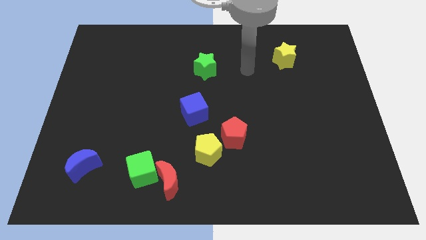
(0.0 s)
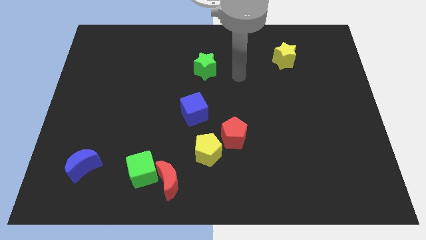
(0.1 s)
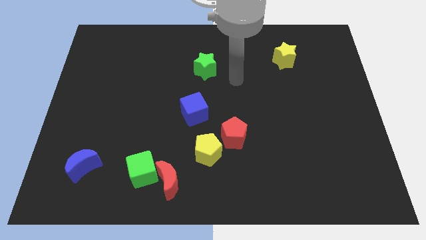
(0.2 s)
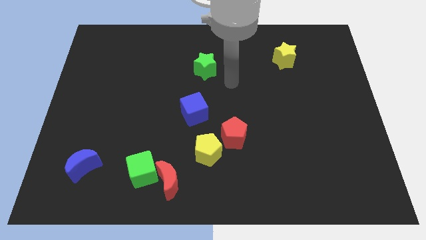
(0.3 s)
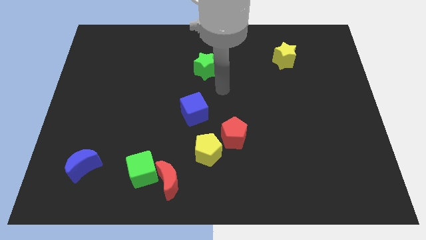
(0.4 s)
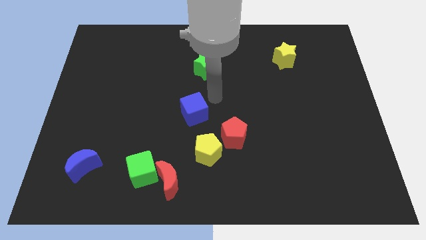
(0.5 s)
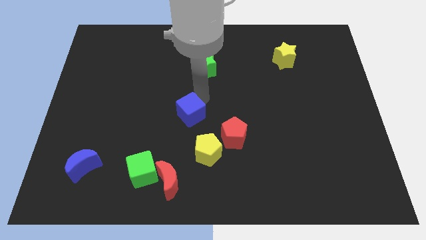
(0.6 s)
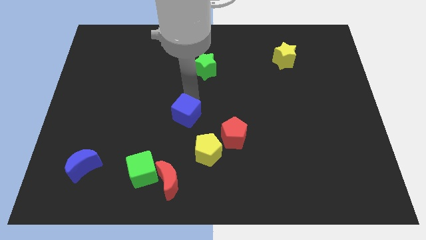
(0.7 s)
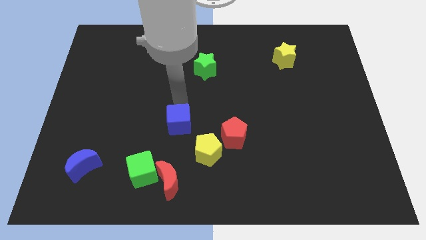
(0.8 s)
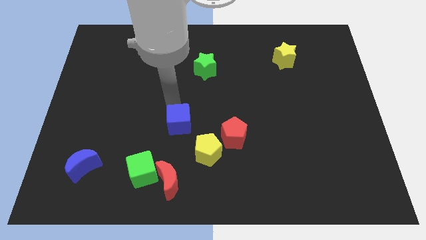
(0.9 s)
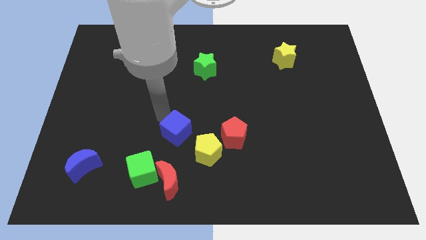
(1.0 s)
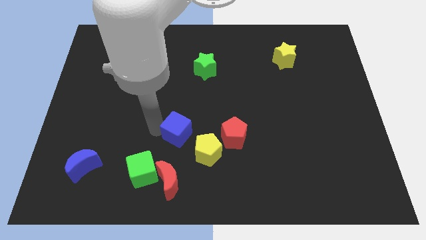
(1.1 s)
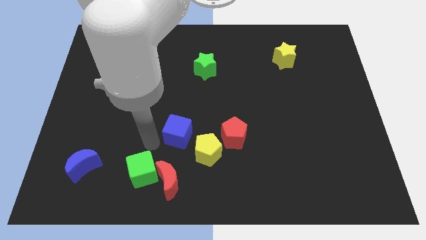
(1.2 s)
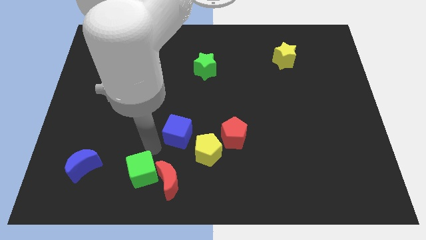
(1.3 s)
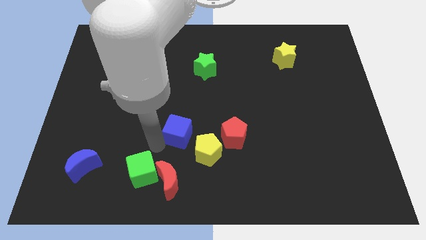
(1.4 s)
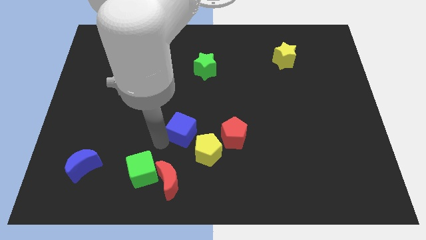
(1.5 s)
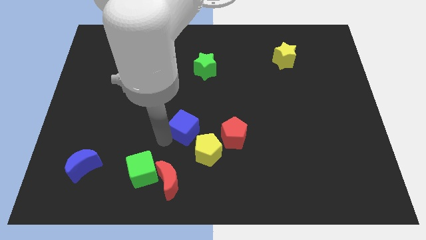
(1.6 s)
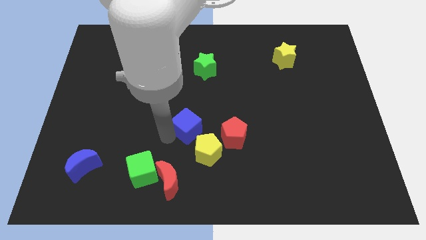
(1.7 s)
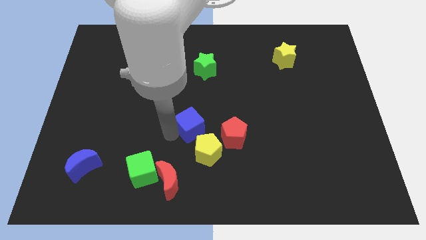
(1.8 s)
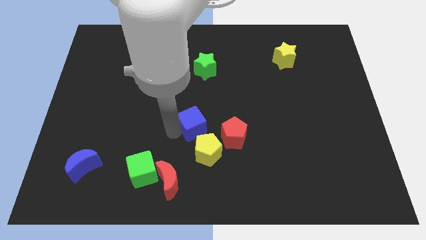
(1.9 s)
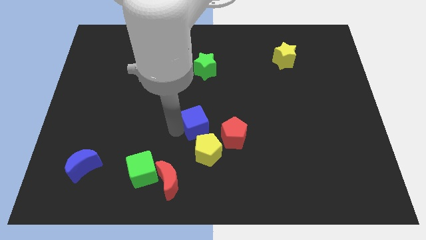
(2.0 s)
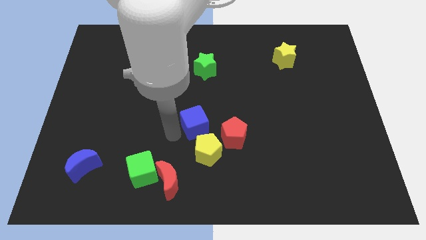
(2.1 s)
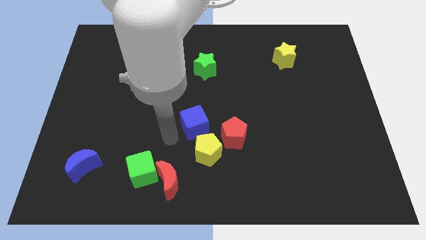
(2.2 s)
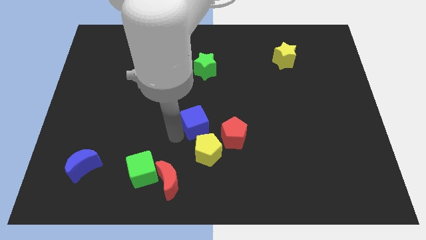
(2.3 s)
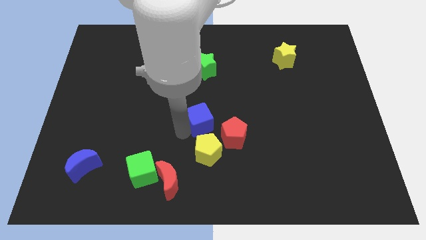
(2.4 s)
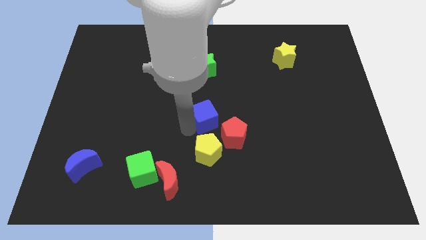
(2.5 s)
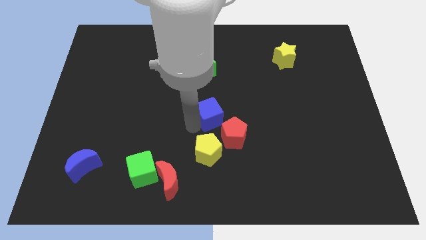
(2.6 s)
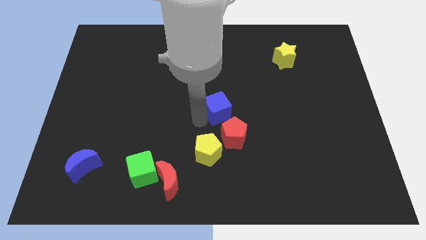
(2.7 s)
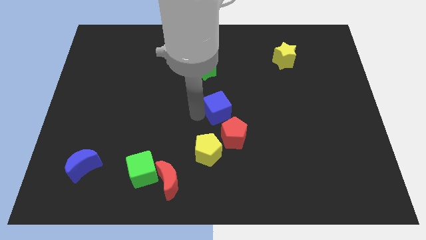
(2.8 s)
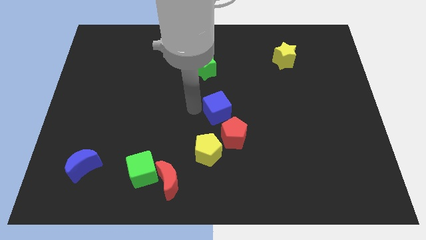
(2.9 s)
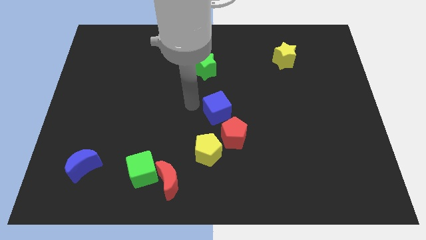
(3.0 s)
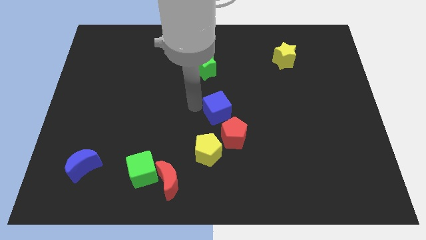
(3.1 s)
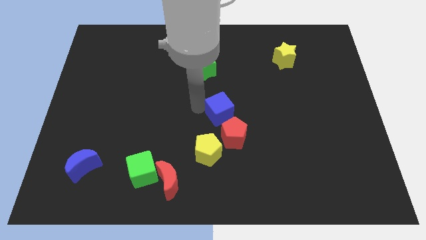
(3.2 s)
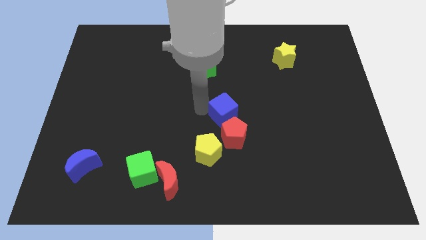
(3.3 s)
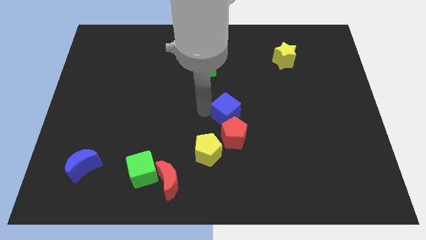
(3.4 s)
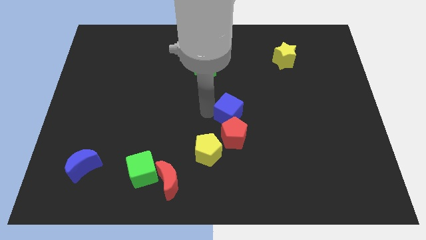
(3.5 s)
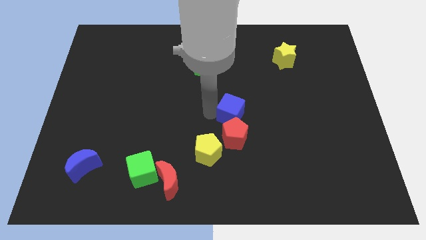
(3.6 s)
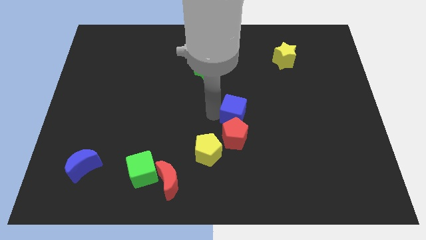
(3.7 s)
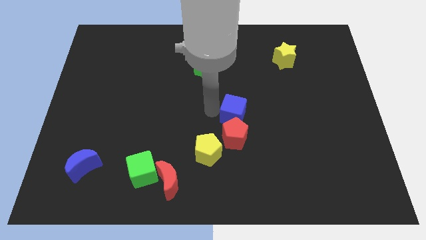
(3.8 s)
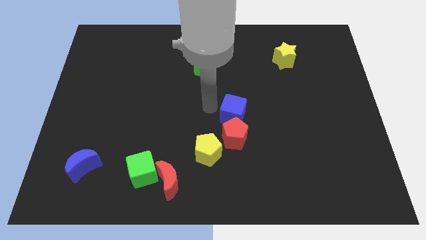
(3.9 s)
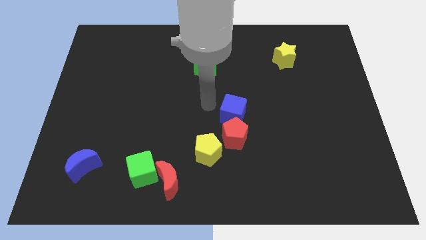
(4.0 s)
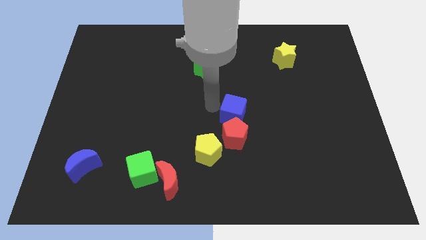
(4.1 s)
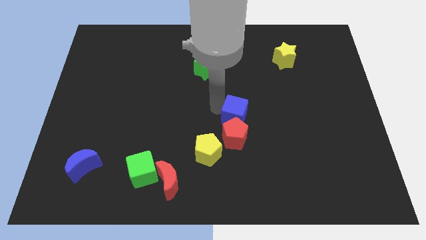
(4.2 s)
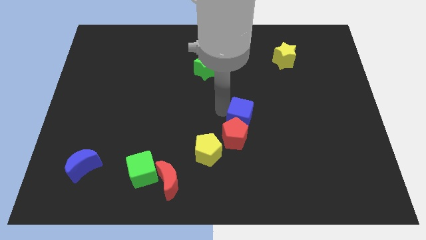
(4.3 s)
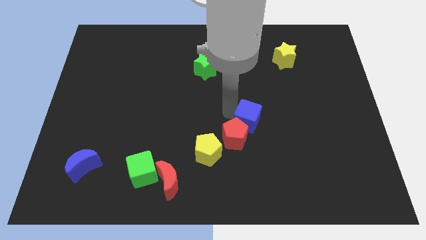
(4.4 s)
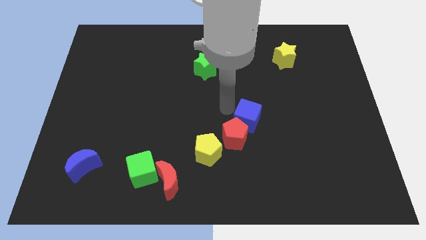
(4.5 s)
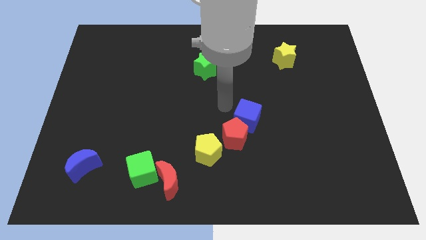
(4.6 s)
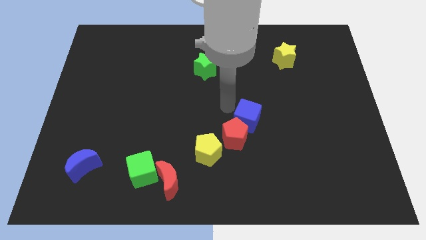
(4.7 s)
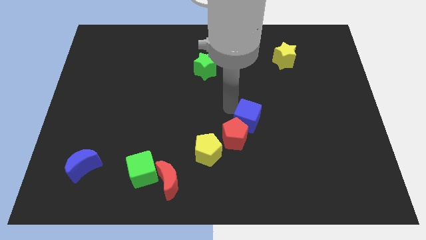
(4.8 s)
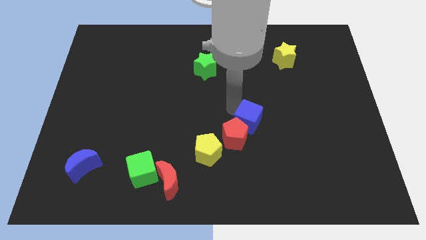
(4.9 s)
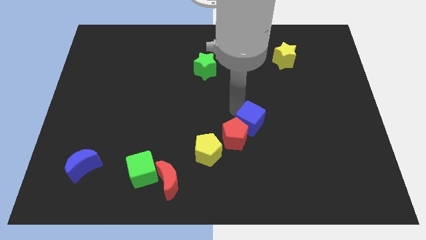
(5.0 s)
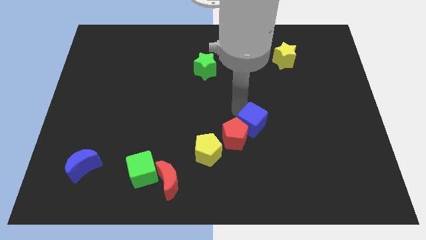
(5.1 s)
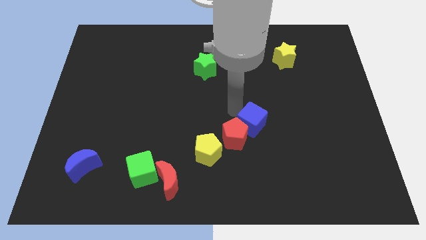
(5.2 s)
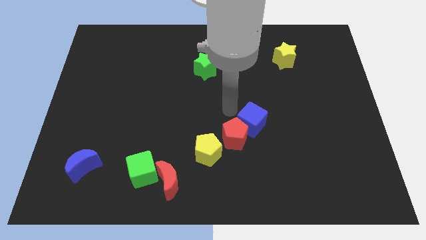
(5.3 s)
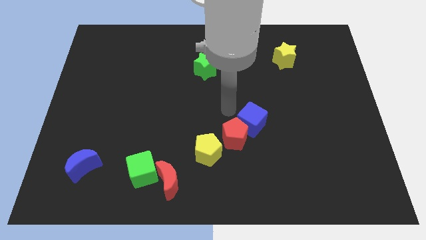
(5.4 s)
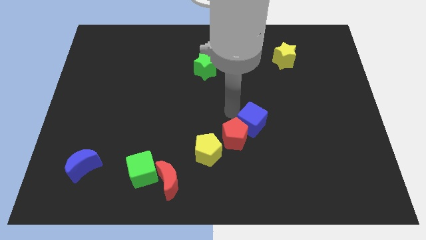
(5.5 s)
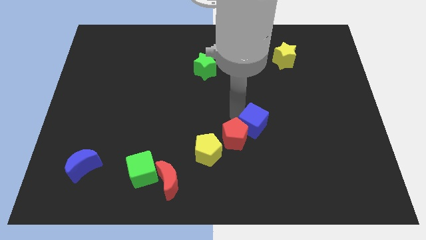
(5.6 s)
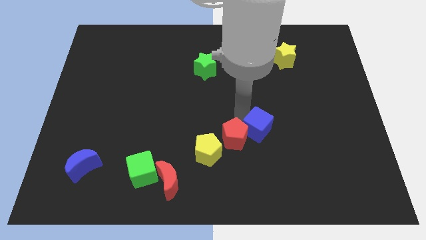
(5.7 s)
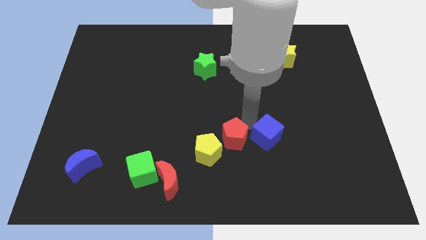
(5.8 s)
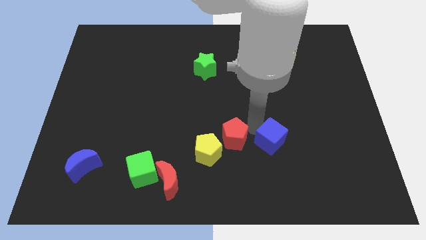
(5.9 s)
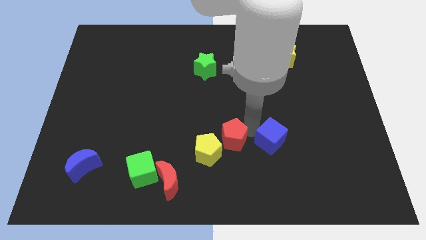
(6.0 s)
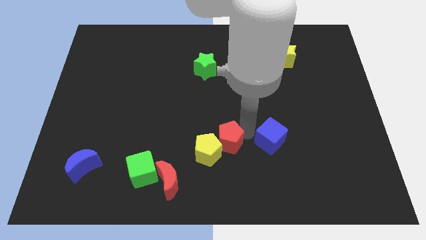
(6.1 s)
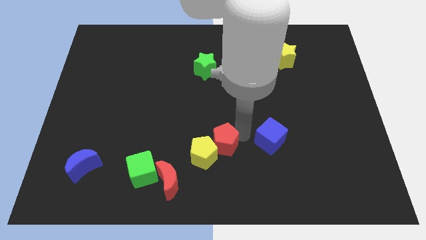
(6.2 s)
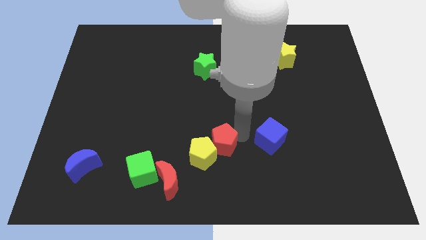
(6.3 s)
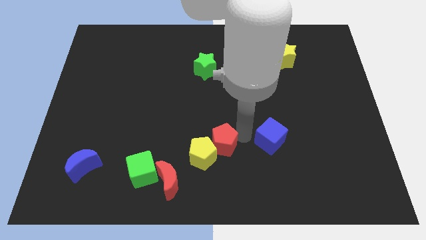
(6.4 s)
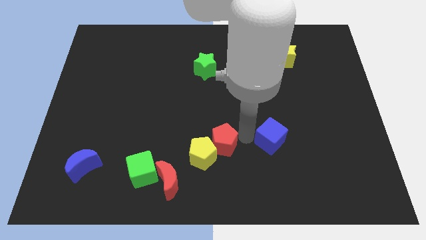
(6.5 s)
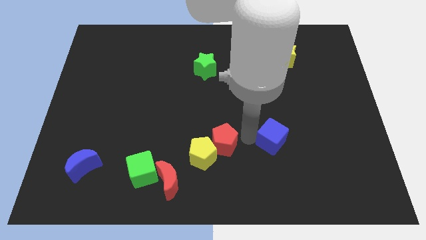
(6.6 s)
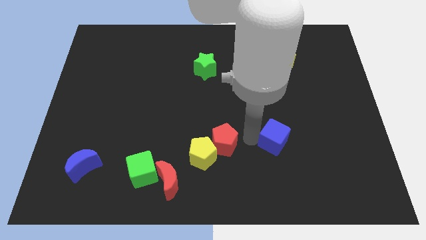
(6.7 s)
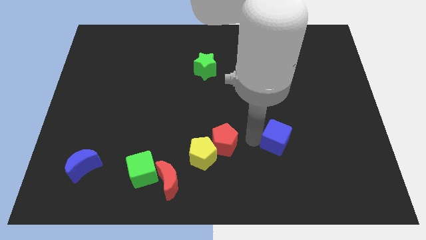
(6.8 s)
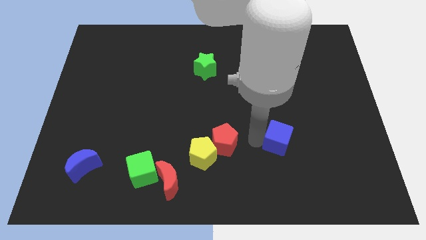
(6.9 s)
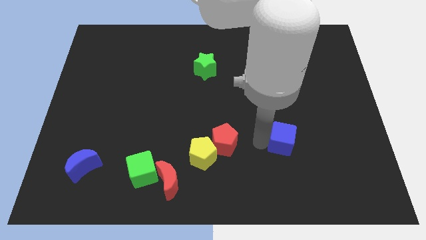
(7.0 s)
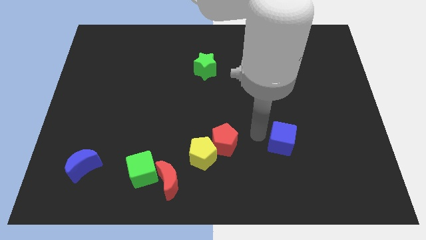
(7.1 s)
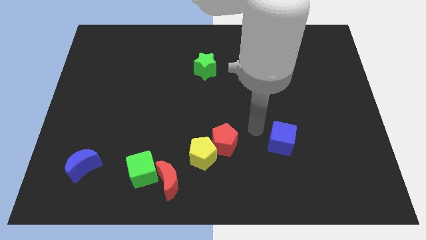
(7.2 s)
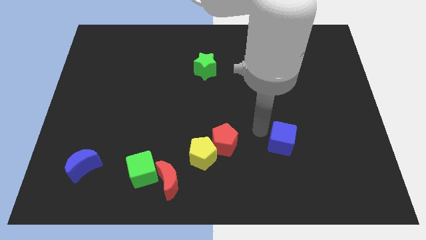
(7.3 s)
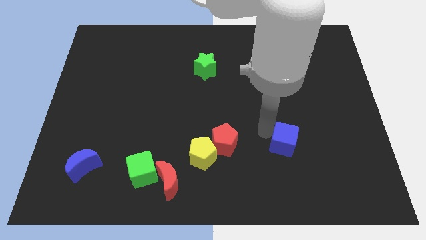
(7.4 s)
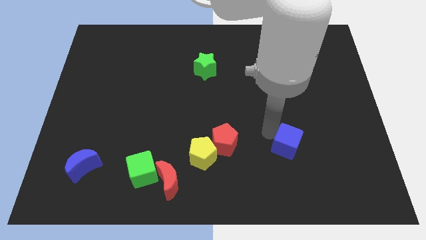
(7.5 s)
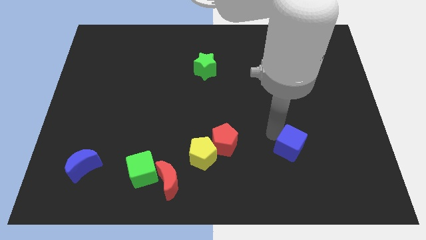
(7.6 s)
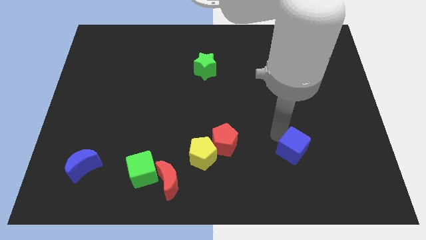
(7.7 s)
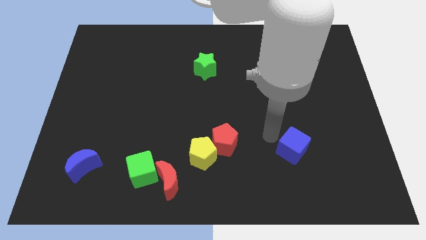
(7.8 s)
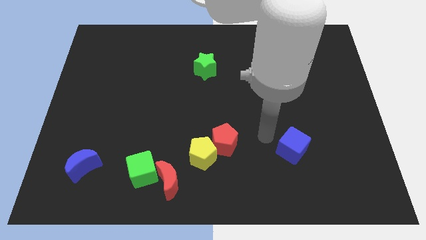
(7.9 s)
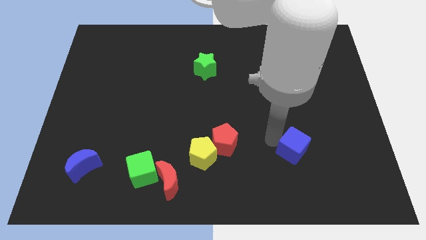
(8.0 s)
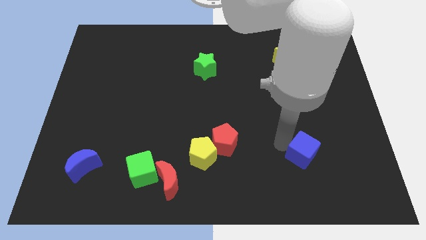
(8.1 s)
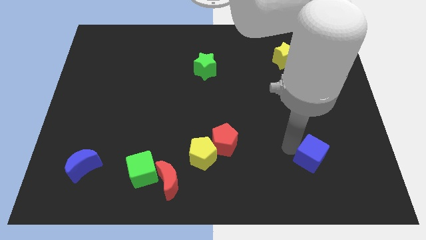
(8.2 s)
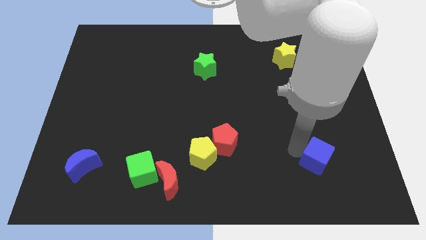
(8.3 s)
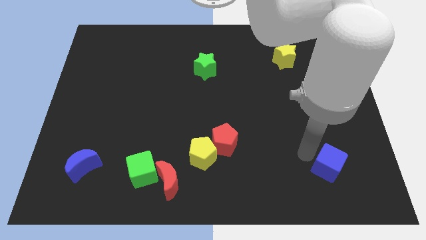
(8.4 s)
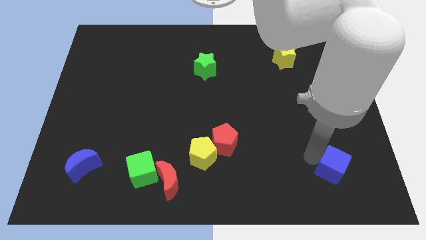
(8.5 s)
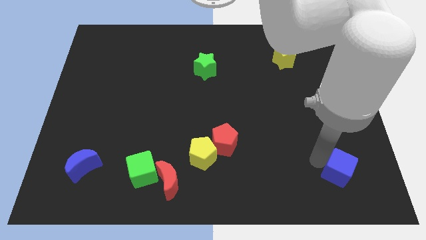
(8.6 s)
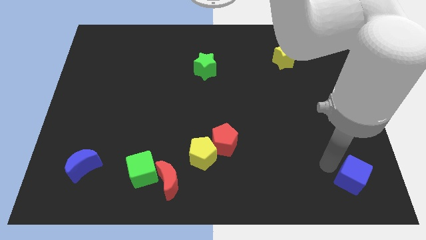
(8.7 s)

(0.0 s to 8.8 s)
slide the blue cube to the bottom right
